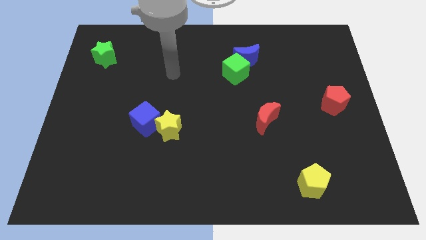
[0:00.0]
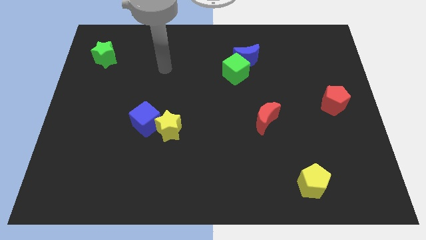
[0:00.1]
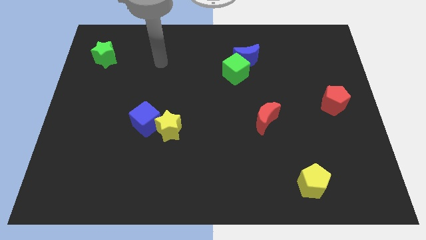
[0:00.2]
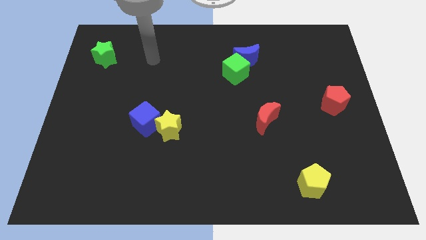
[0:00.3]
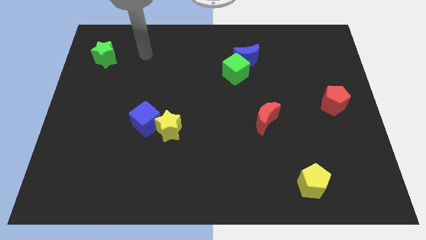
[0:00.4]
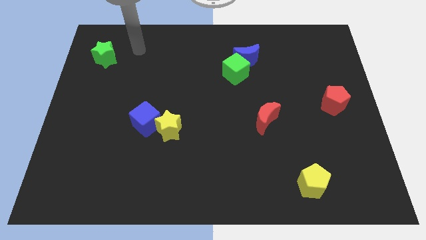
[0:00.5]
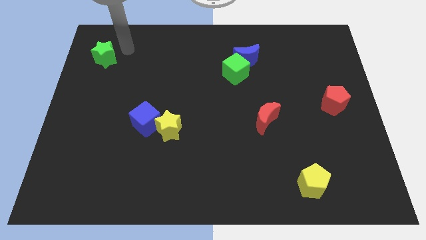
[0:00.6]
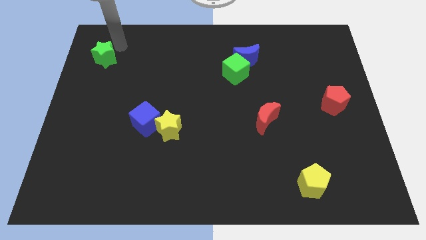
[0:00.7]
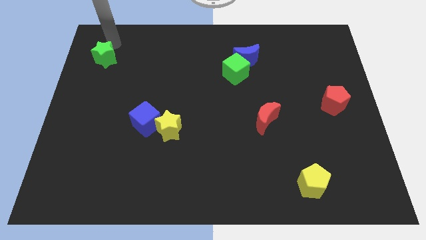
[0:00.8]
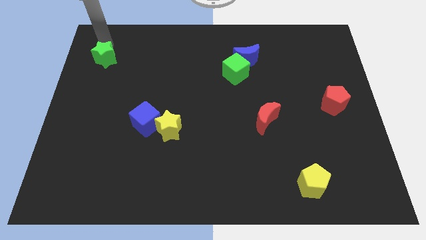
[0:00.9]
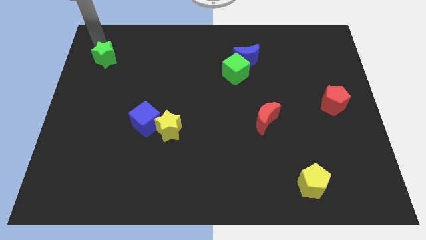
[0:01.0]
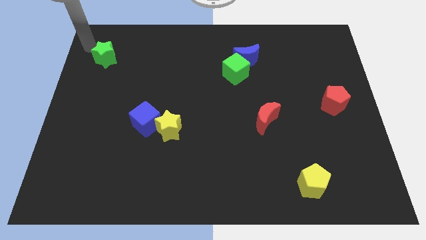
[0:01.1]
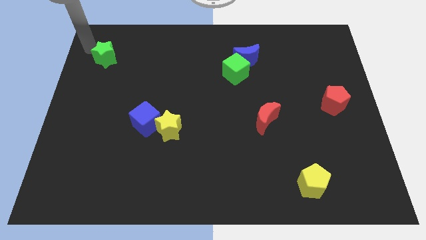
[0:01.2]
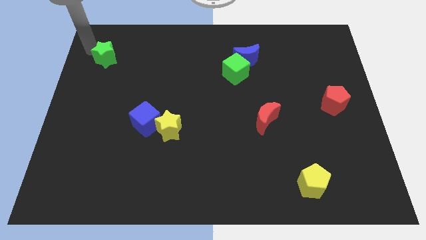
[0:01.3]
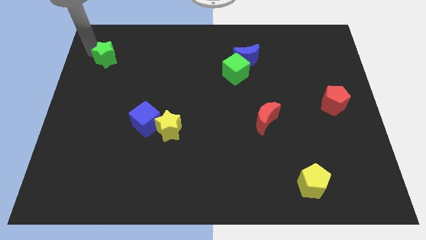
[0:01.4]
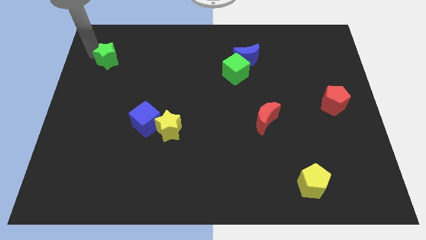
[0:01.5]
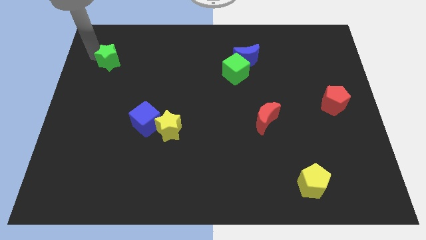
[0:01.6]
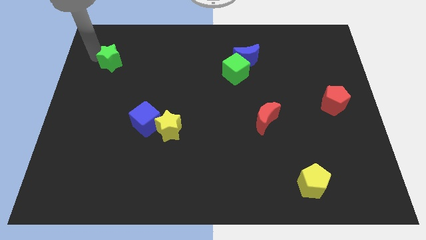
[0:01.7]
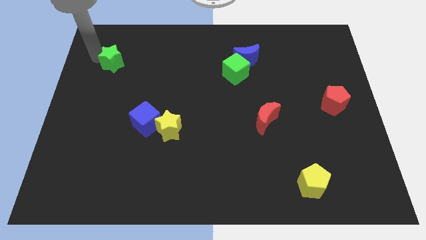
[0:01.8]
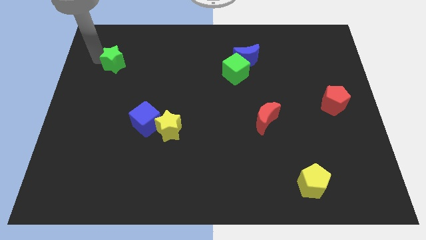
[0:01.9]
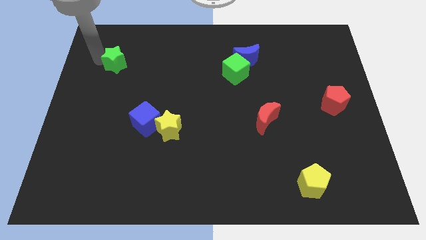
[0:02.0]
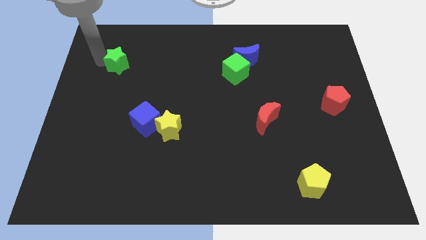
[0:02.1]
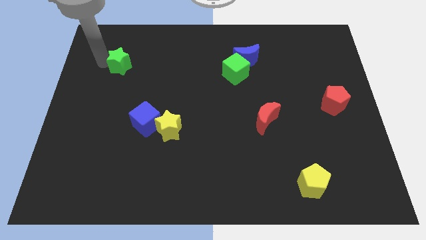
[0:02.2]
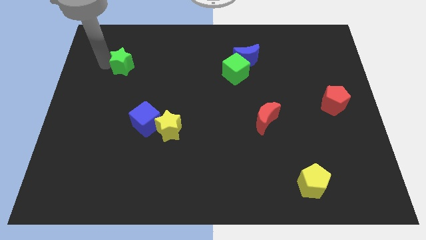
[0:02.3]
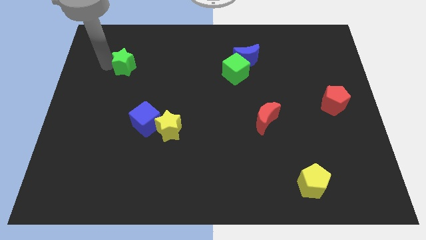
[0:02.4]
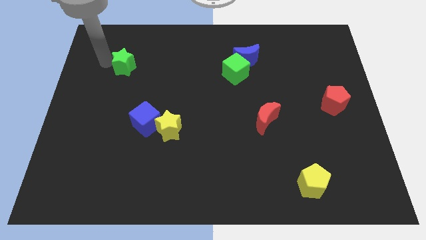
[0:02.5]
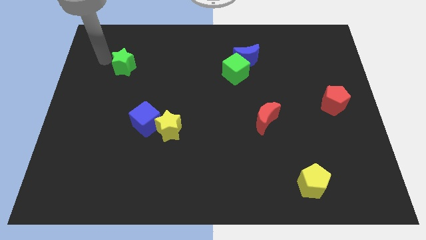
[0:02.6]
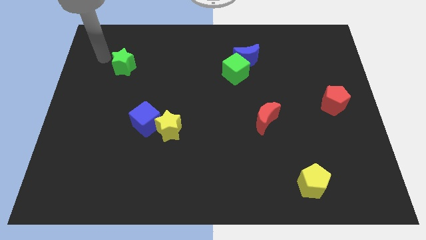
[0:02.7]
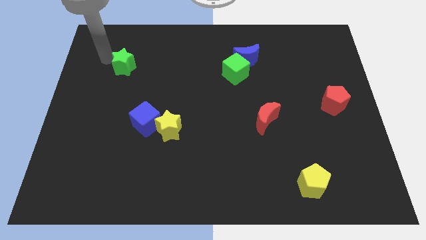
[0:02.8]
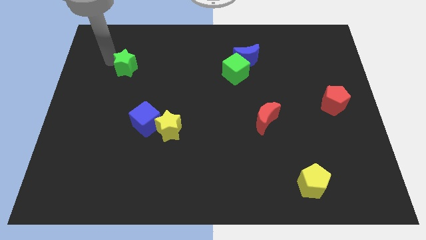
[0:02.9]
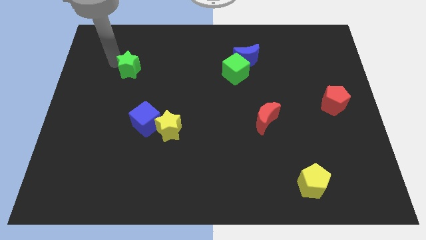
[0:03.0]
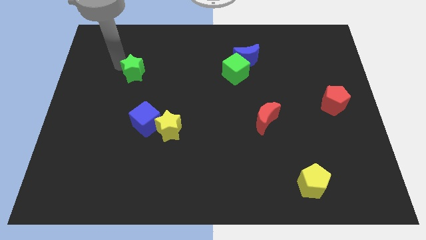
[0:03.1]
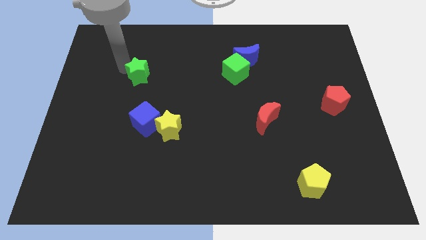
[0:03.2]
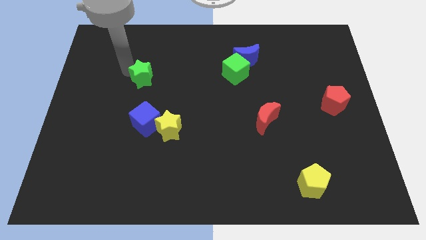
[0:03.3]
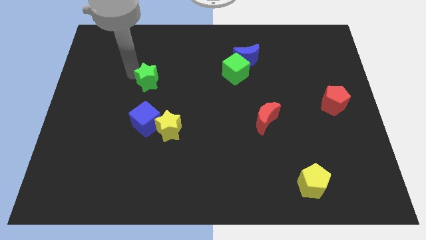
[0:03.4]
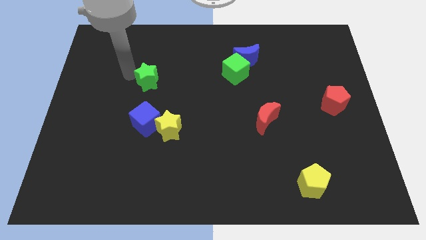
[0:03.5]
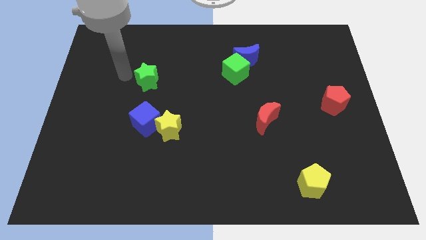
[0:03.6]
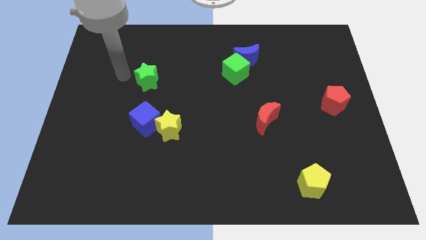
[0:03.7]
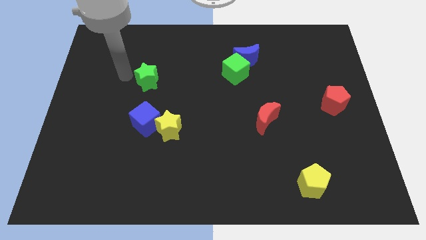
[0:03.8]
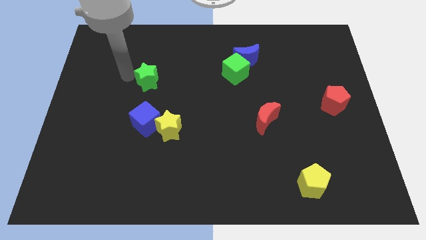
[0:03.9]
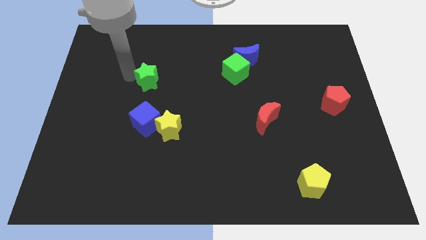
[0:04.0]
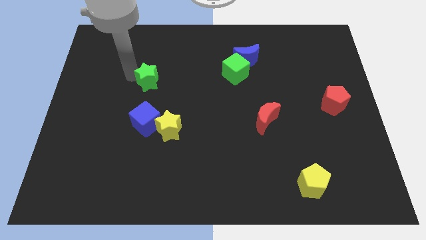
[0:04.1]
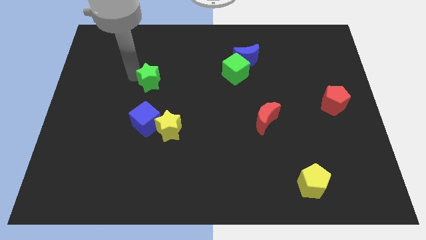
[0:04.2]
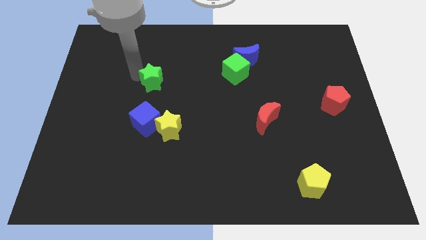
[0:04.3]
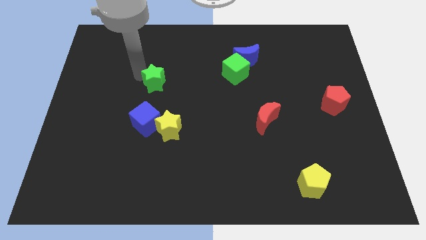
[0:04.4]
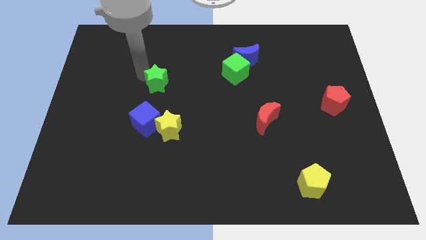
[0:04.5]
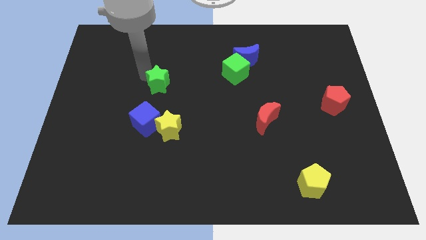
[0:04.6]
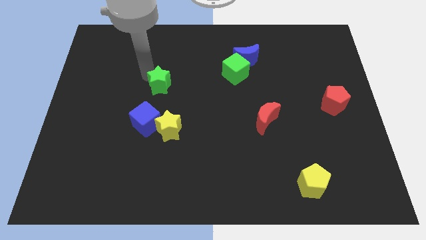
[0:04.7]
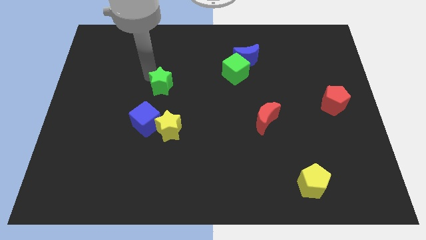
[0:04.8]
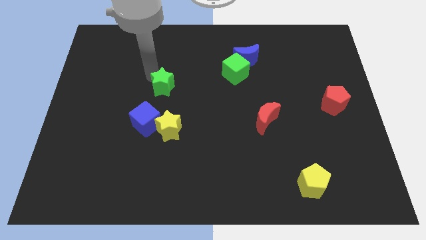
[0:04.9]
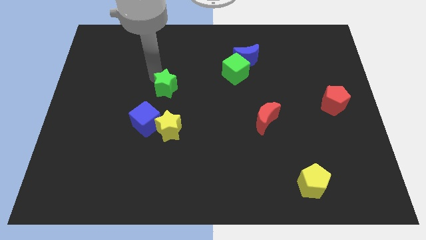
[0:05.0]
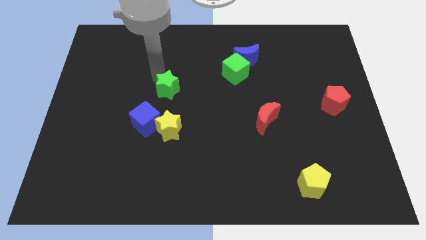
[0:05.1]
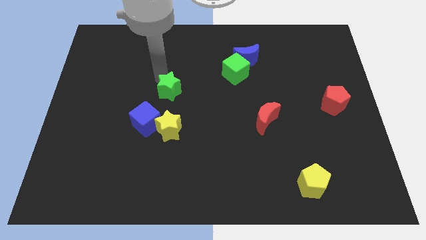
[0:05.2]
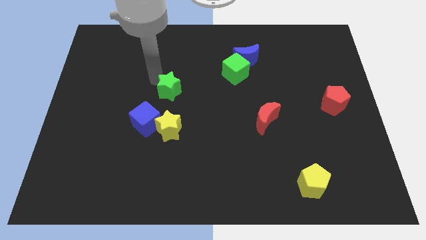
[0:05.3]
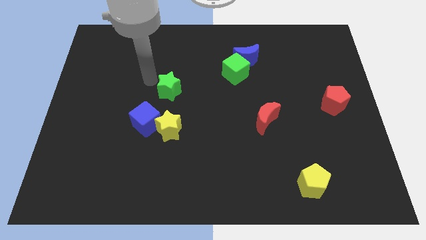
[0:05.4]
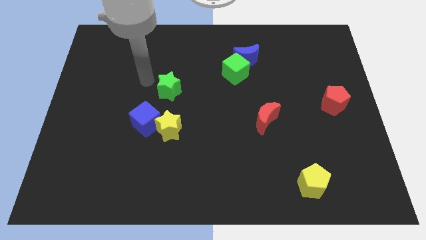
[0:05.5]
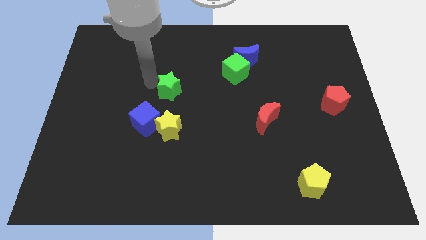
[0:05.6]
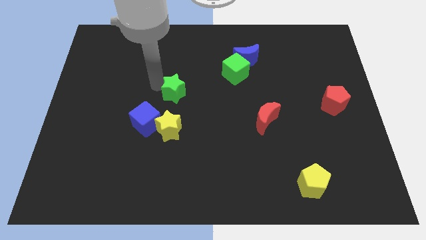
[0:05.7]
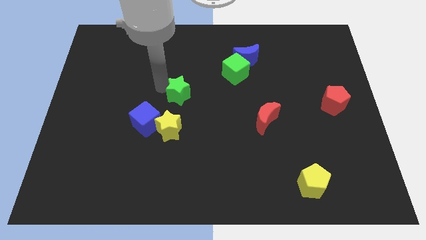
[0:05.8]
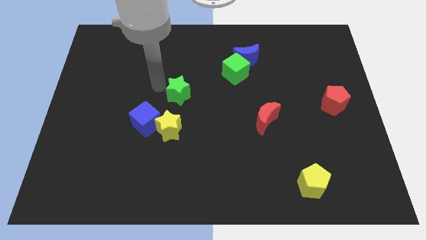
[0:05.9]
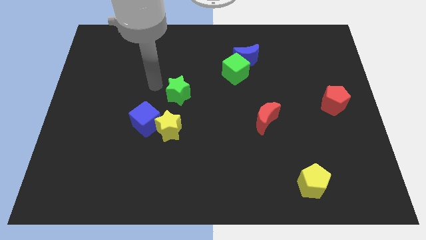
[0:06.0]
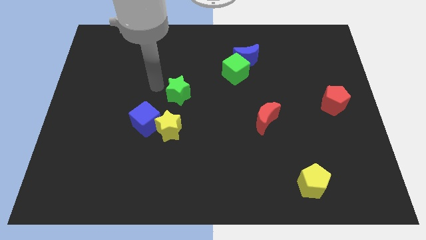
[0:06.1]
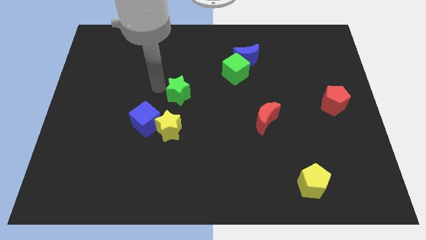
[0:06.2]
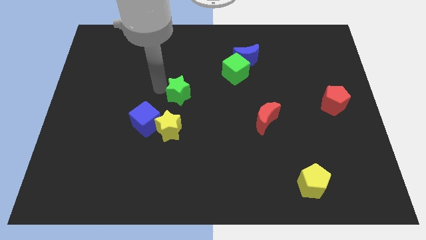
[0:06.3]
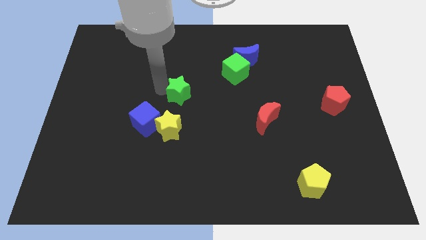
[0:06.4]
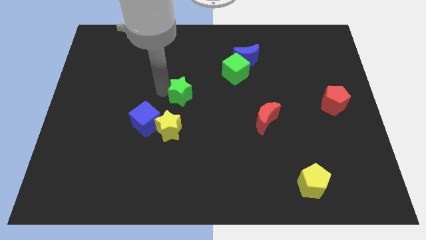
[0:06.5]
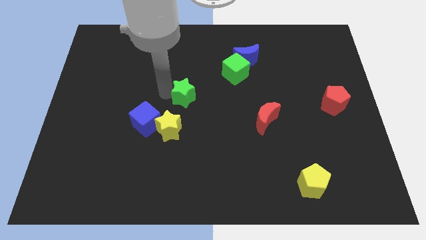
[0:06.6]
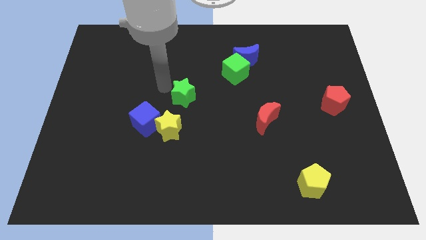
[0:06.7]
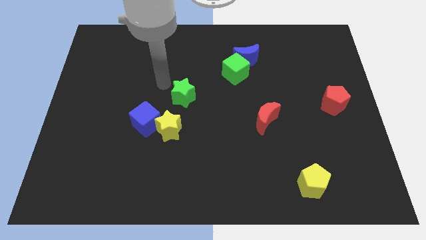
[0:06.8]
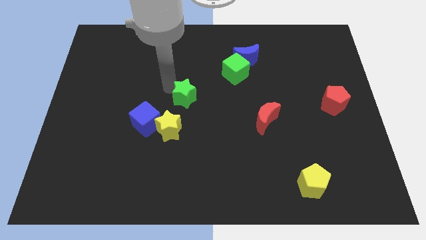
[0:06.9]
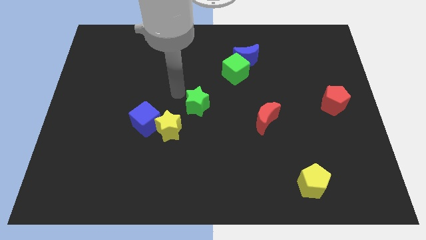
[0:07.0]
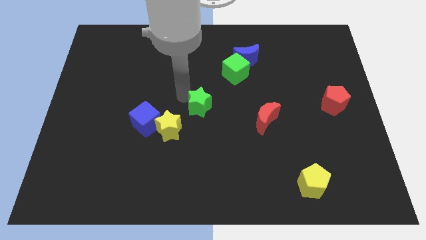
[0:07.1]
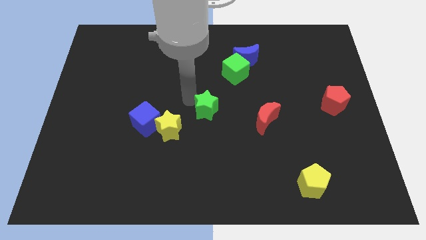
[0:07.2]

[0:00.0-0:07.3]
put the green star left of the red moon
